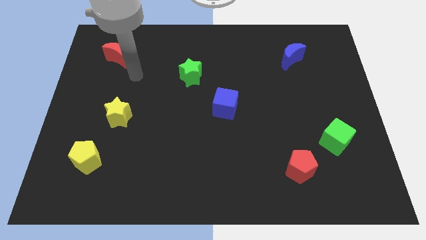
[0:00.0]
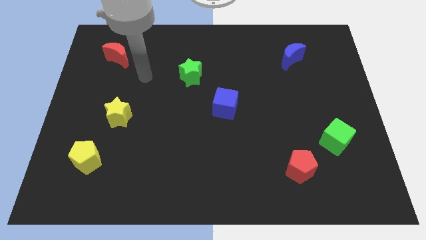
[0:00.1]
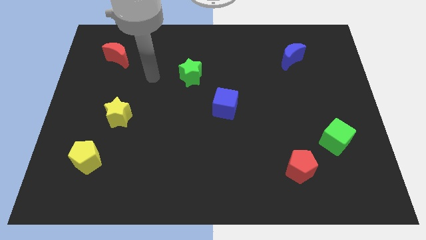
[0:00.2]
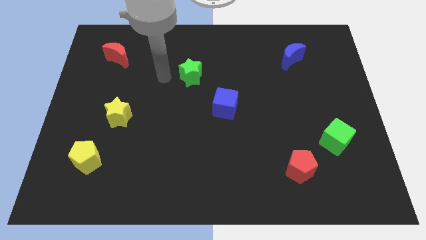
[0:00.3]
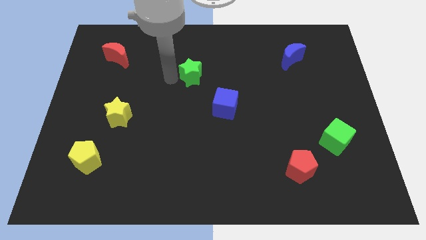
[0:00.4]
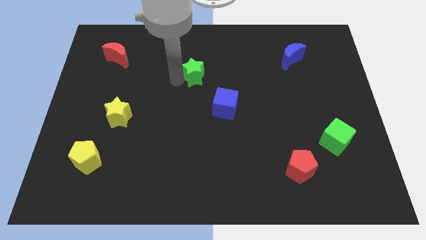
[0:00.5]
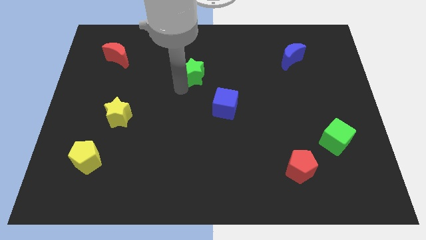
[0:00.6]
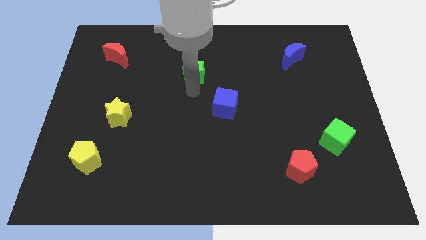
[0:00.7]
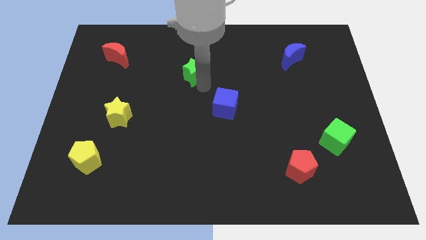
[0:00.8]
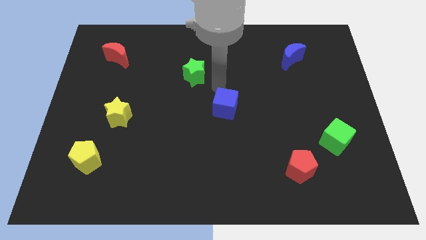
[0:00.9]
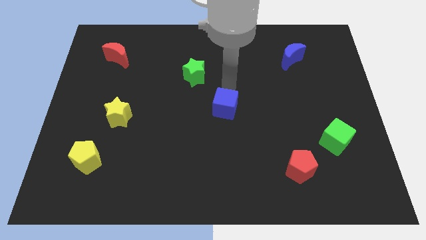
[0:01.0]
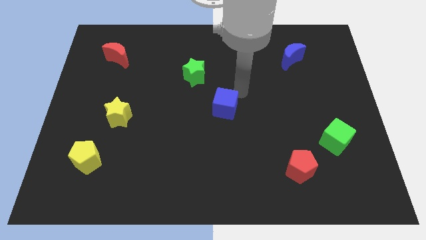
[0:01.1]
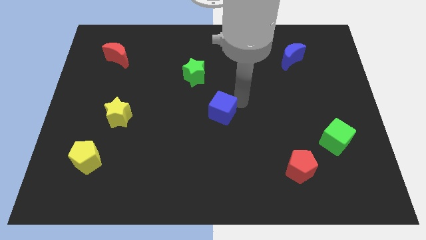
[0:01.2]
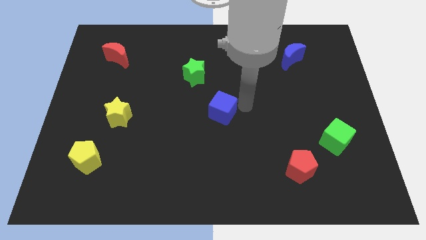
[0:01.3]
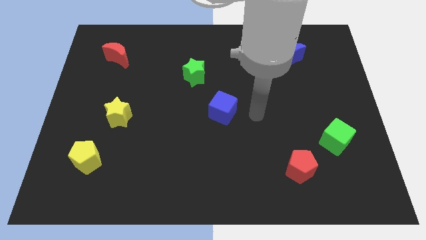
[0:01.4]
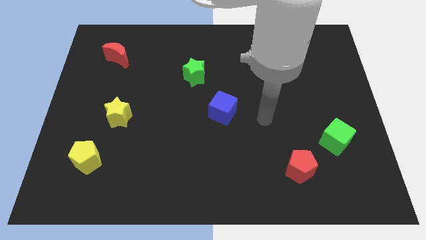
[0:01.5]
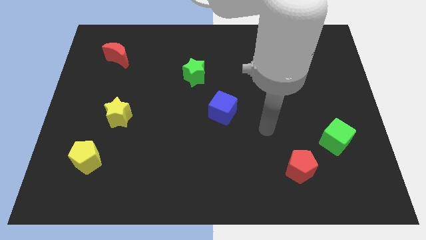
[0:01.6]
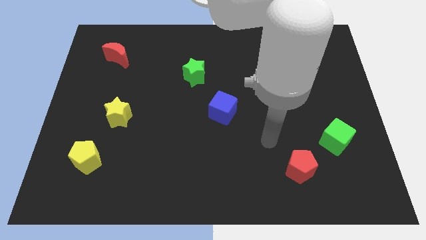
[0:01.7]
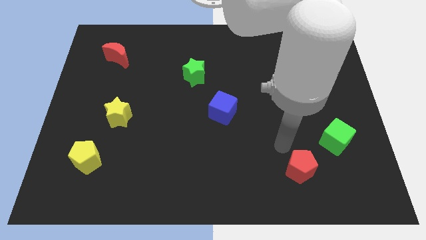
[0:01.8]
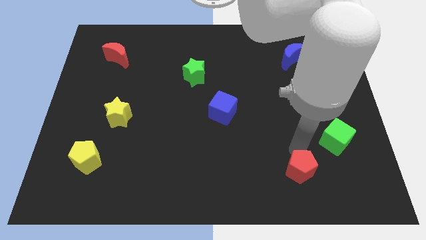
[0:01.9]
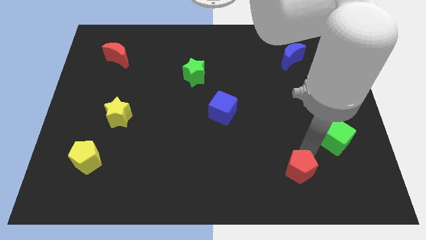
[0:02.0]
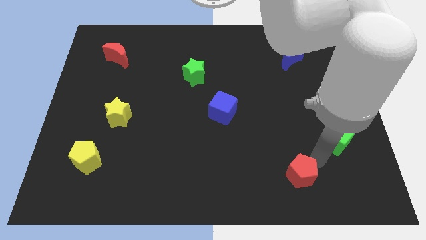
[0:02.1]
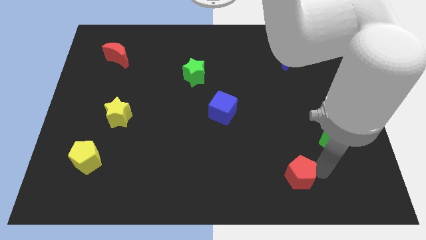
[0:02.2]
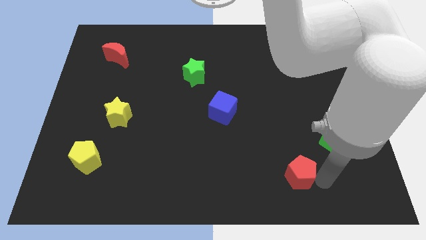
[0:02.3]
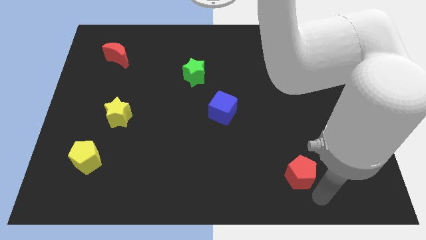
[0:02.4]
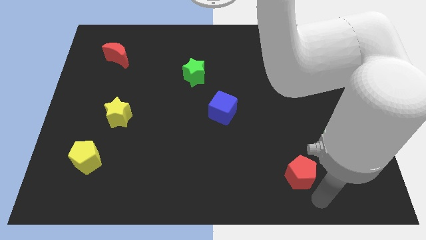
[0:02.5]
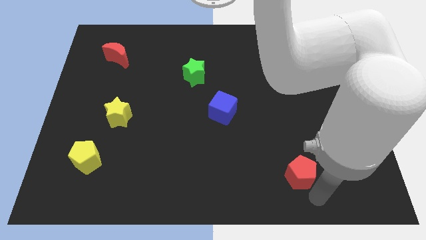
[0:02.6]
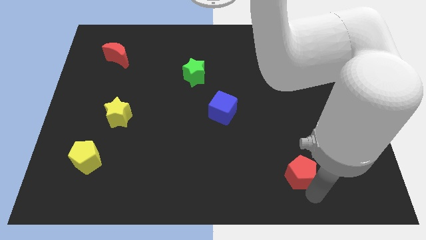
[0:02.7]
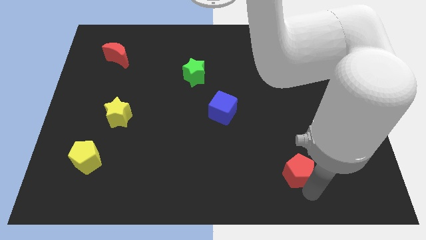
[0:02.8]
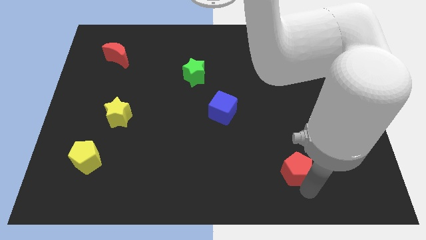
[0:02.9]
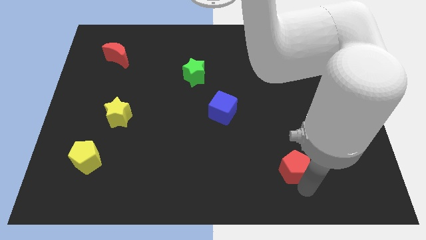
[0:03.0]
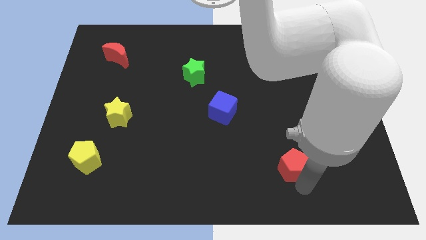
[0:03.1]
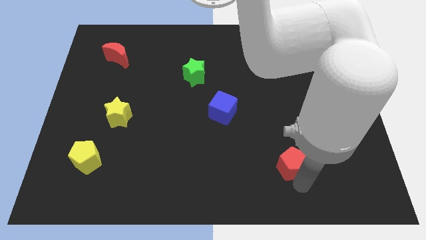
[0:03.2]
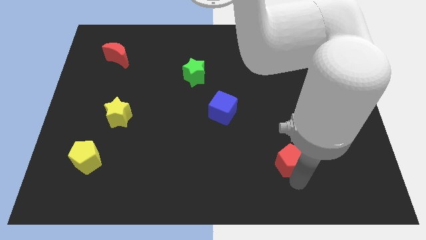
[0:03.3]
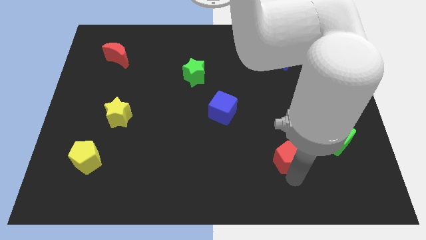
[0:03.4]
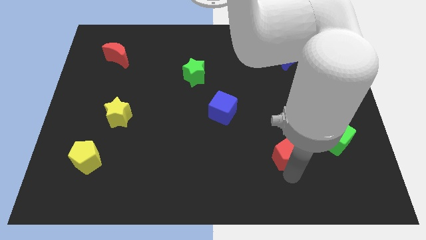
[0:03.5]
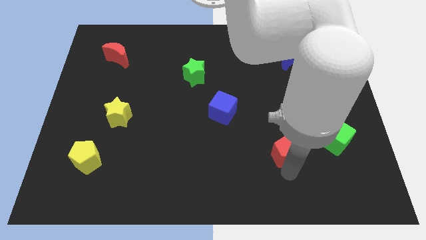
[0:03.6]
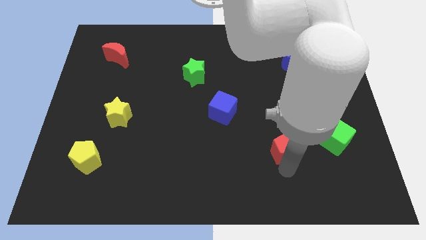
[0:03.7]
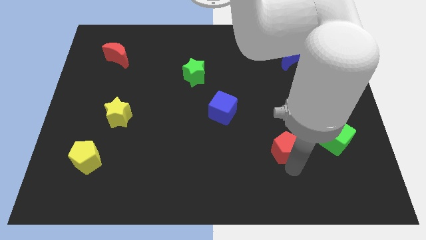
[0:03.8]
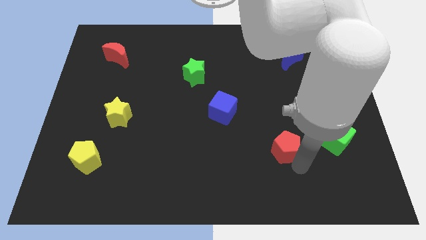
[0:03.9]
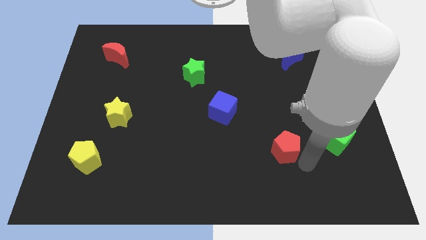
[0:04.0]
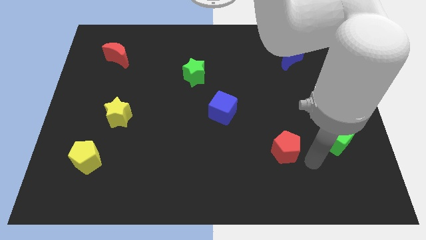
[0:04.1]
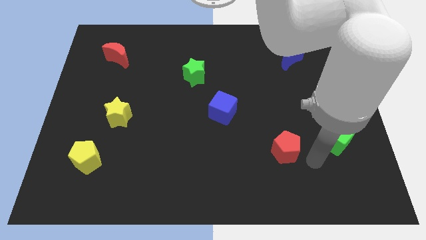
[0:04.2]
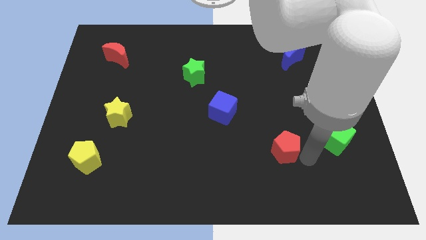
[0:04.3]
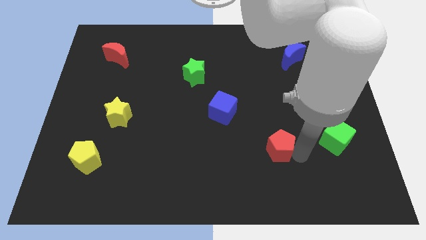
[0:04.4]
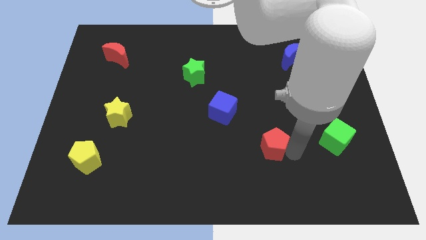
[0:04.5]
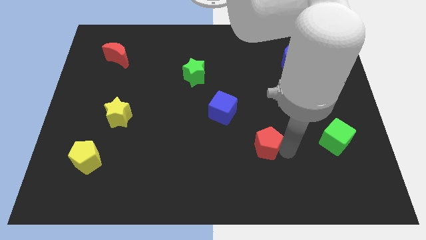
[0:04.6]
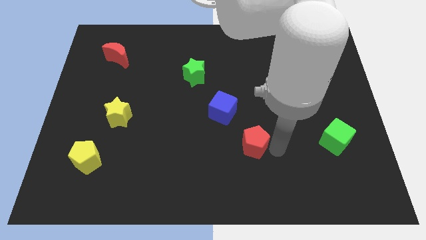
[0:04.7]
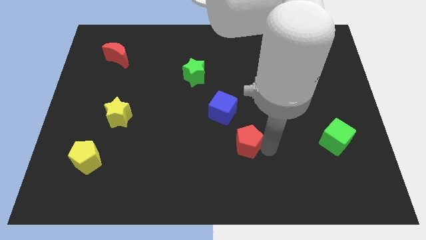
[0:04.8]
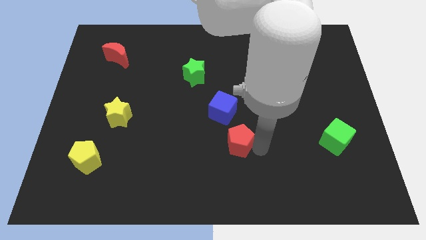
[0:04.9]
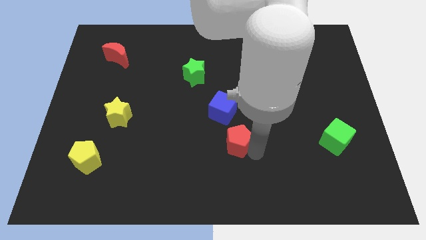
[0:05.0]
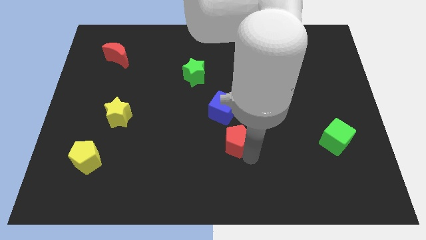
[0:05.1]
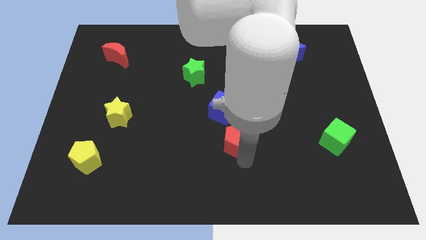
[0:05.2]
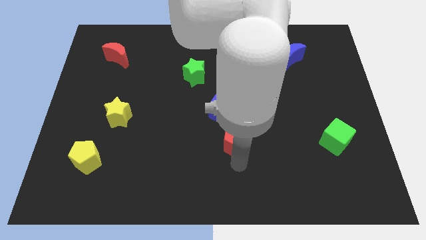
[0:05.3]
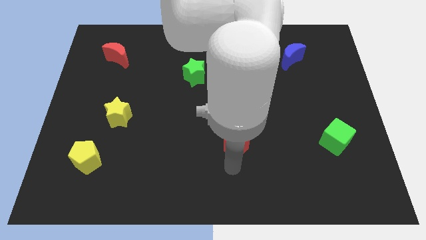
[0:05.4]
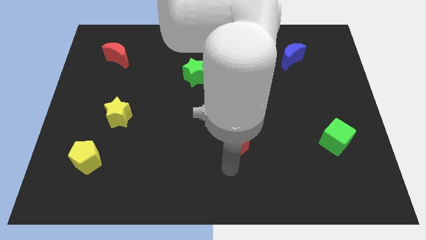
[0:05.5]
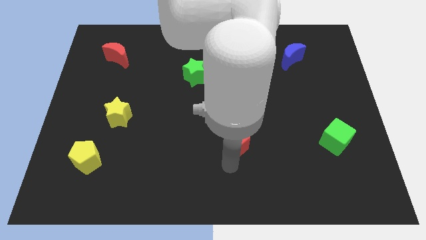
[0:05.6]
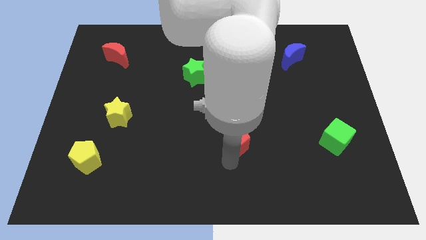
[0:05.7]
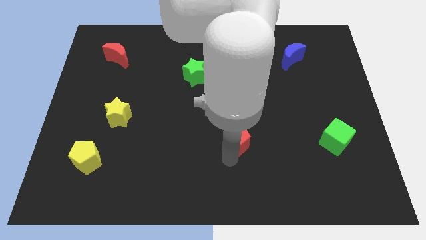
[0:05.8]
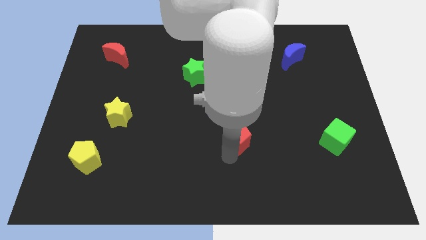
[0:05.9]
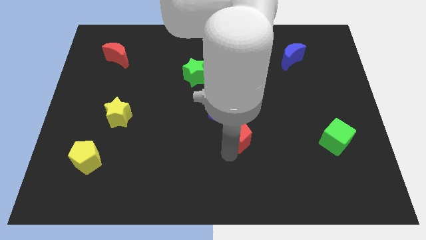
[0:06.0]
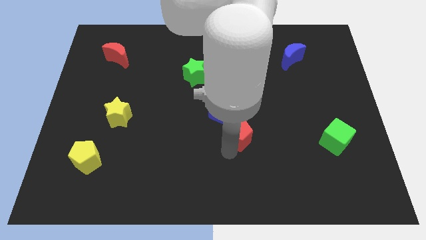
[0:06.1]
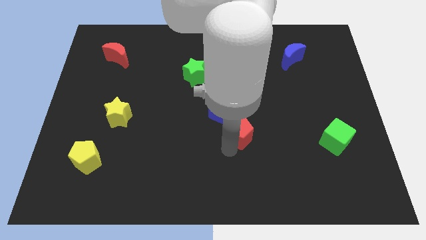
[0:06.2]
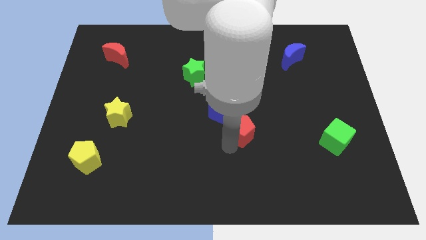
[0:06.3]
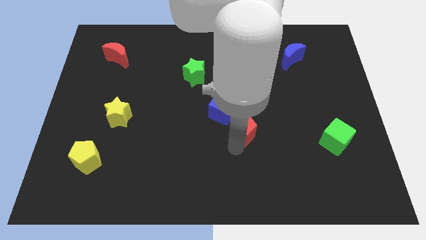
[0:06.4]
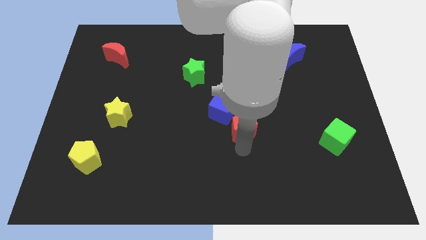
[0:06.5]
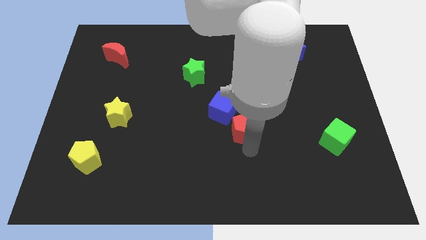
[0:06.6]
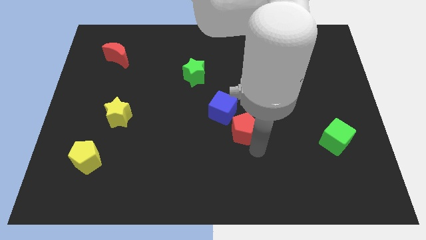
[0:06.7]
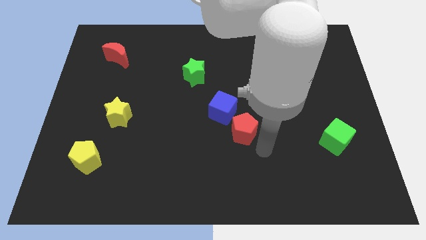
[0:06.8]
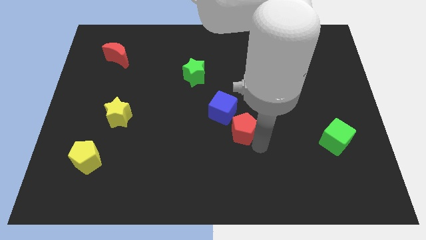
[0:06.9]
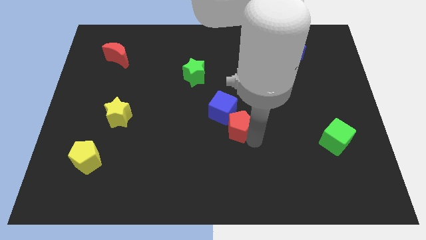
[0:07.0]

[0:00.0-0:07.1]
put the red pentagon close to the blue cube
